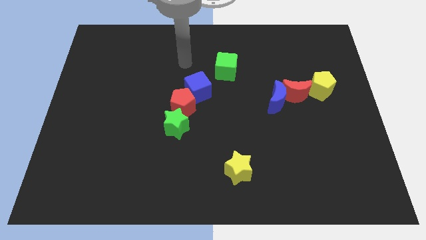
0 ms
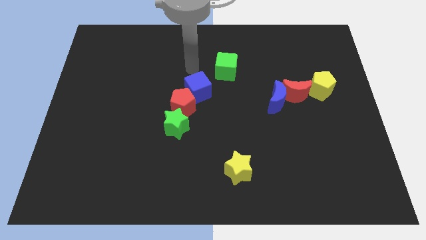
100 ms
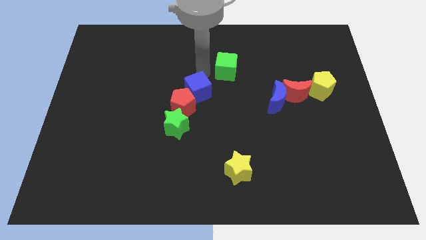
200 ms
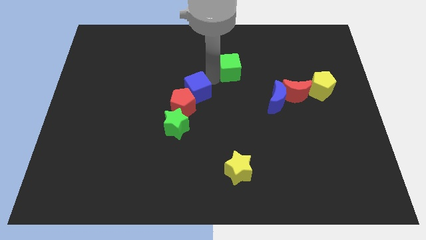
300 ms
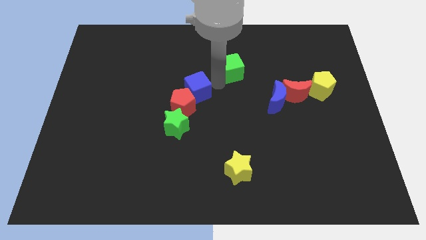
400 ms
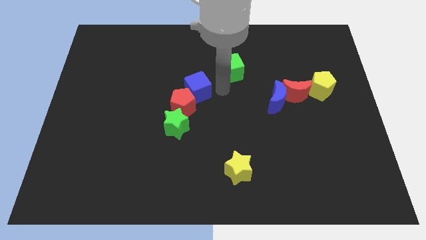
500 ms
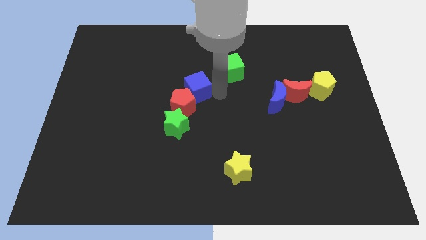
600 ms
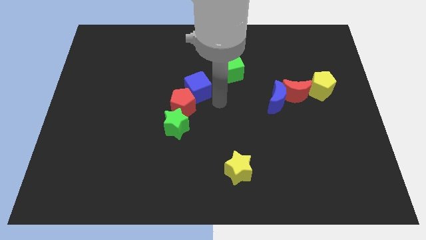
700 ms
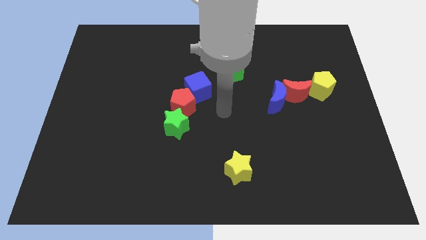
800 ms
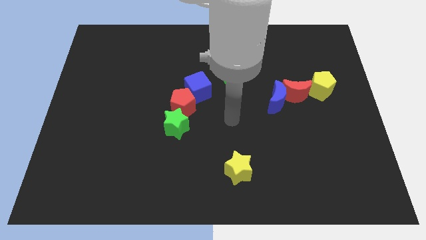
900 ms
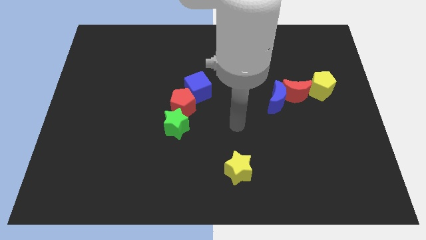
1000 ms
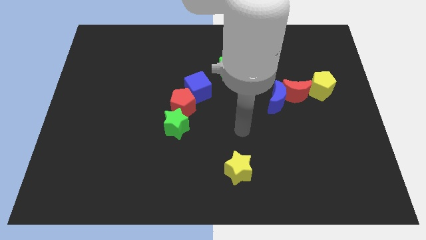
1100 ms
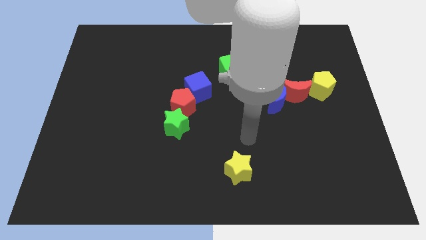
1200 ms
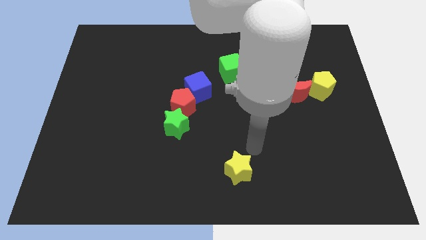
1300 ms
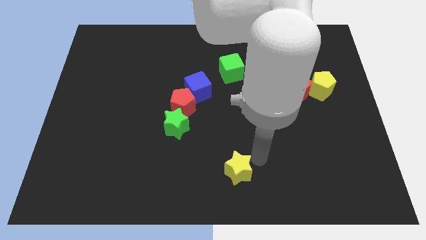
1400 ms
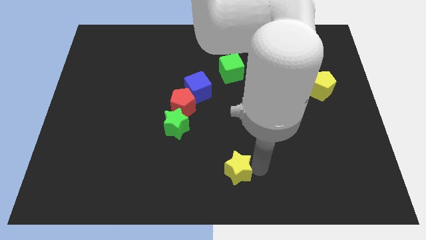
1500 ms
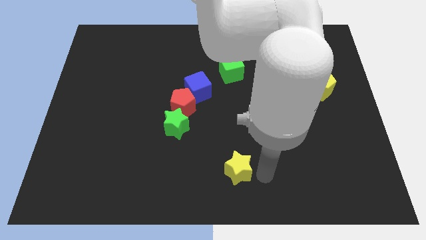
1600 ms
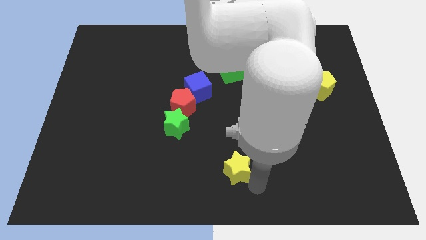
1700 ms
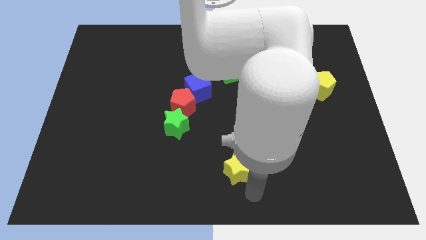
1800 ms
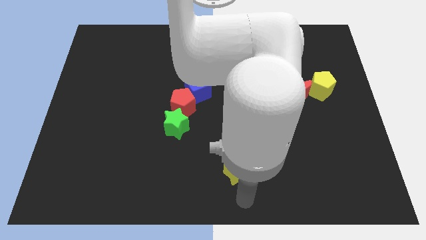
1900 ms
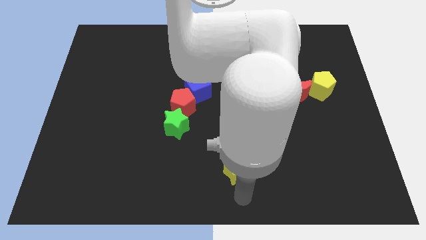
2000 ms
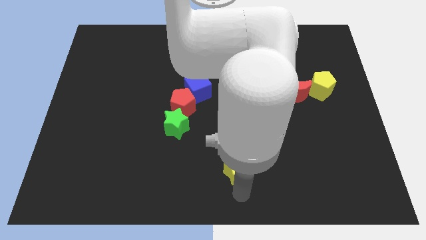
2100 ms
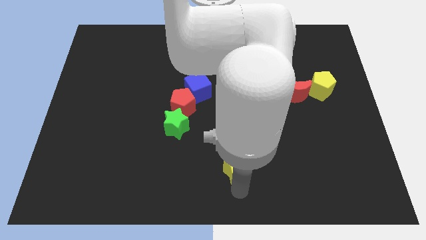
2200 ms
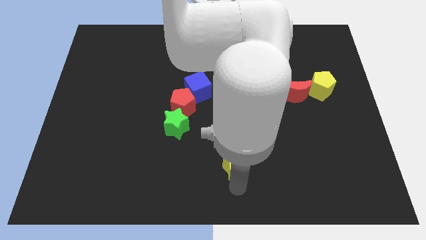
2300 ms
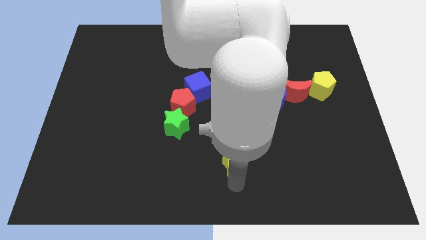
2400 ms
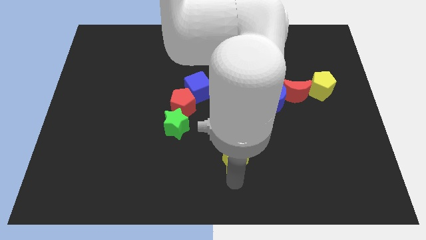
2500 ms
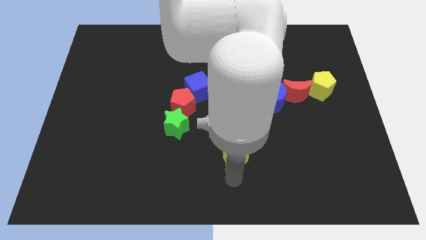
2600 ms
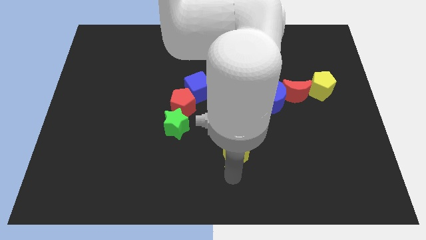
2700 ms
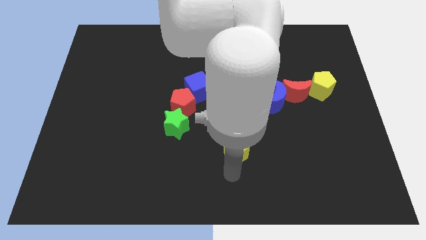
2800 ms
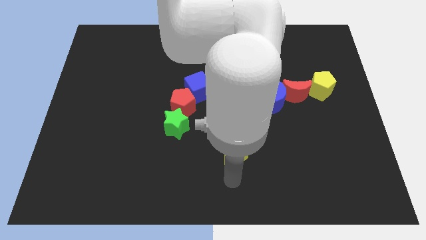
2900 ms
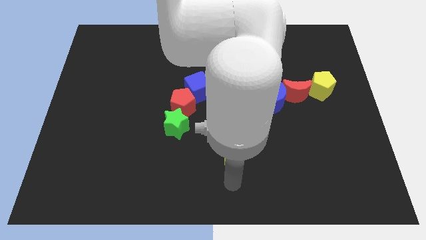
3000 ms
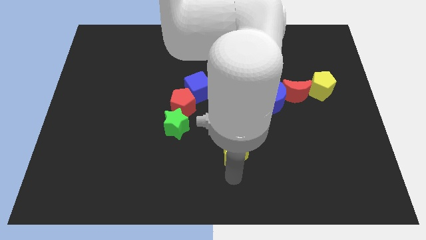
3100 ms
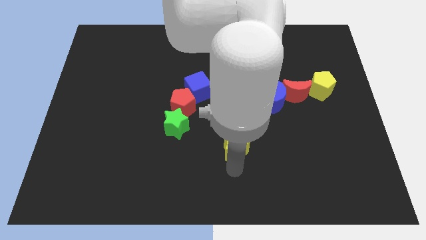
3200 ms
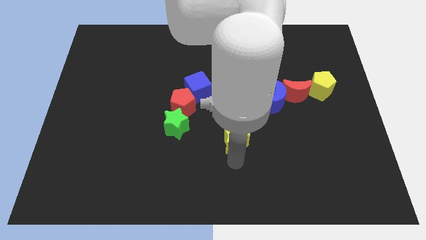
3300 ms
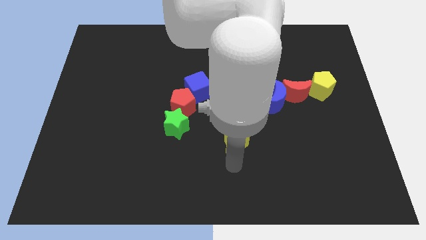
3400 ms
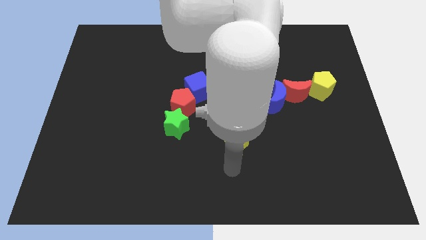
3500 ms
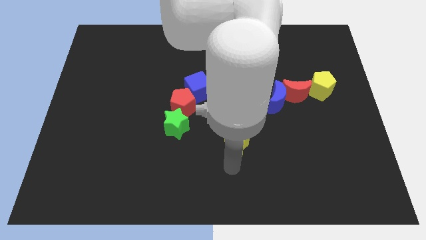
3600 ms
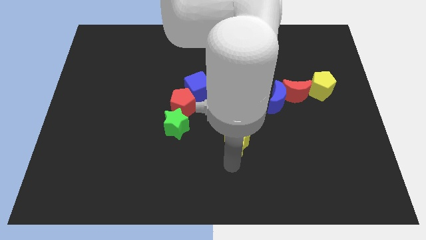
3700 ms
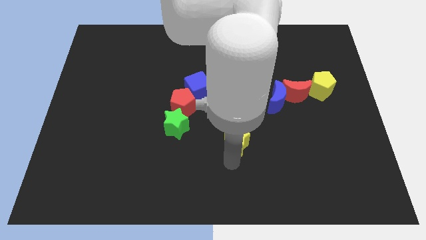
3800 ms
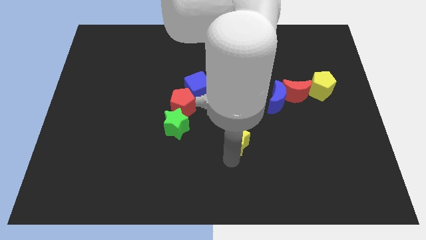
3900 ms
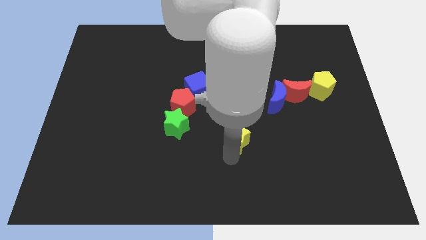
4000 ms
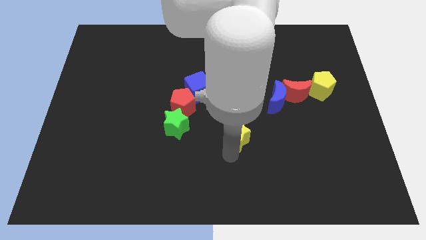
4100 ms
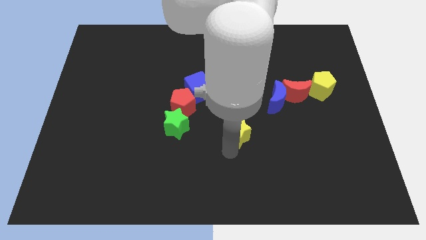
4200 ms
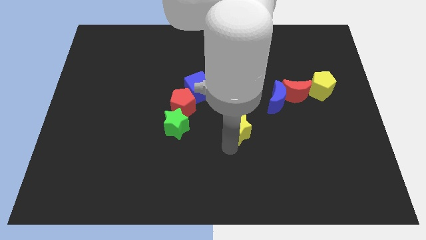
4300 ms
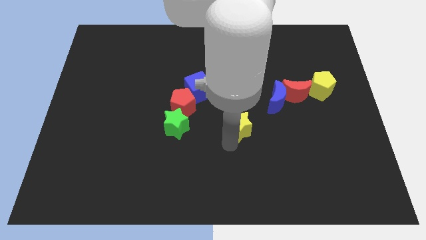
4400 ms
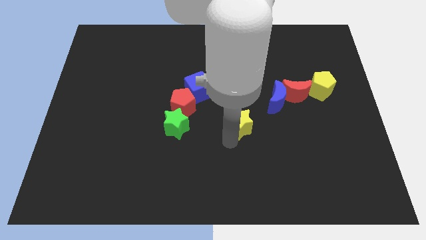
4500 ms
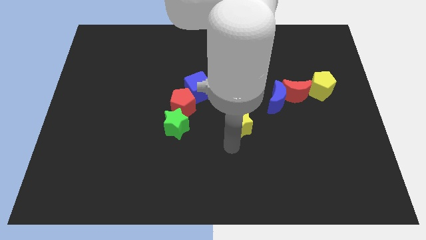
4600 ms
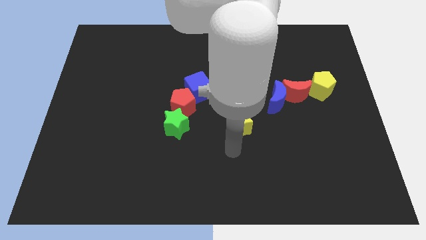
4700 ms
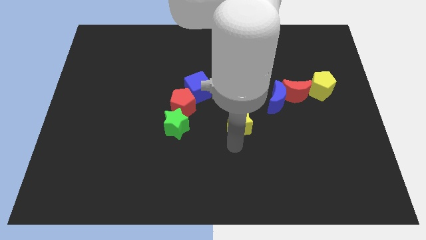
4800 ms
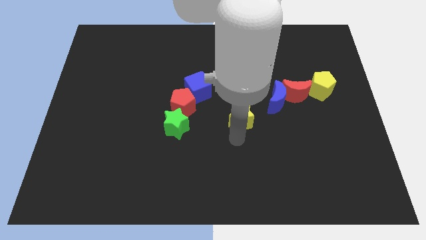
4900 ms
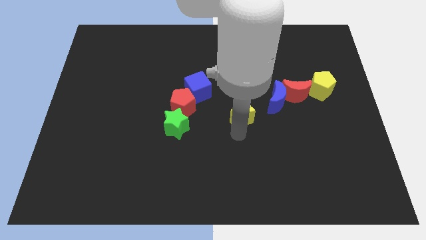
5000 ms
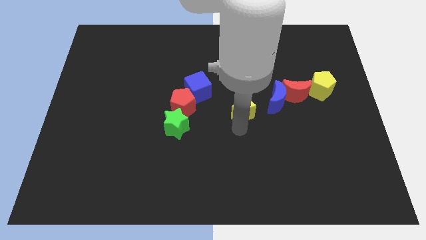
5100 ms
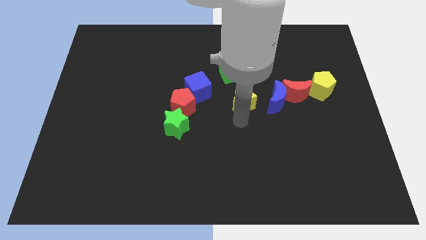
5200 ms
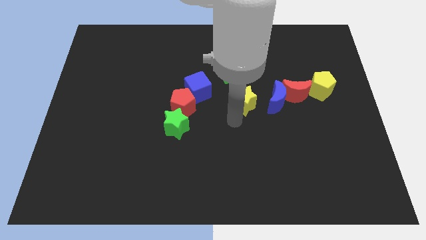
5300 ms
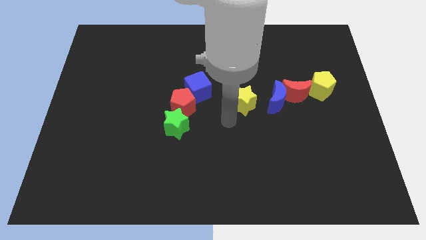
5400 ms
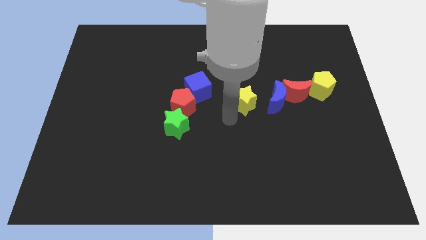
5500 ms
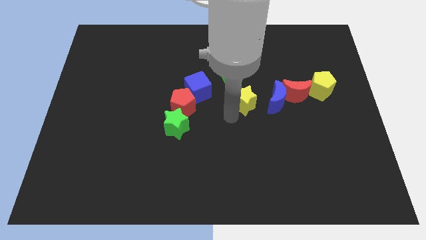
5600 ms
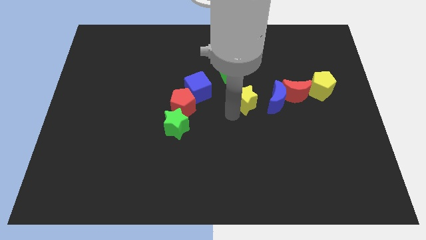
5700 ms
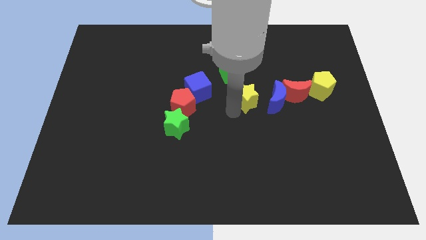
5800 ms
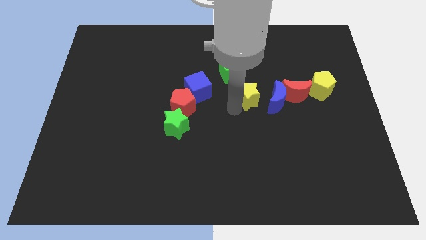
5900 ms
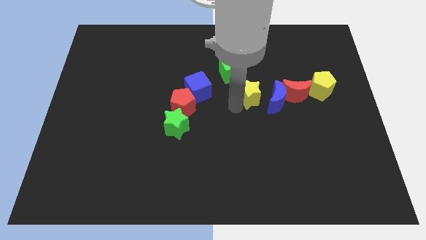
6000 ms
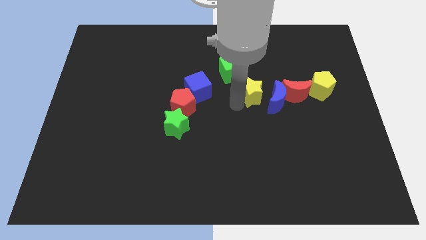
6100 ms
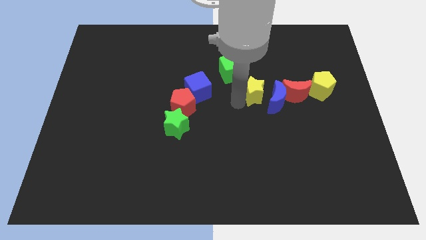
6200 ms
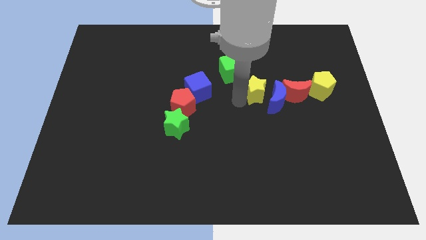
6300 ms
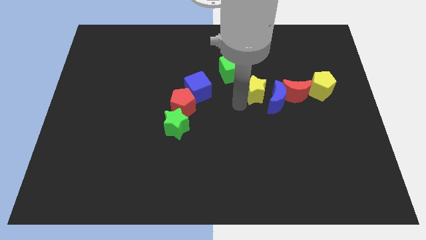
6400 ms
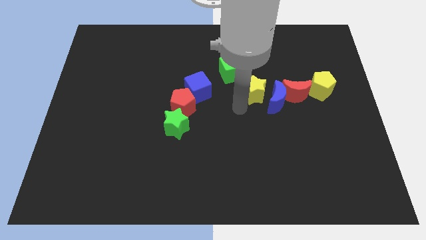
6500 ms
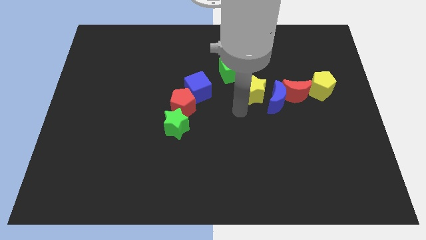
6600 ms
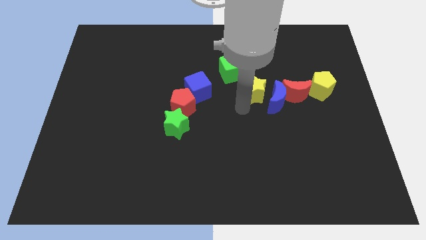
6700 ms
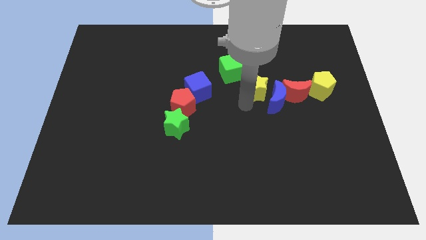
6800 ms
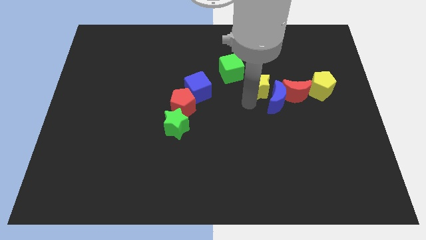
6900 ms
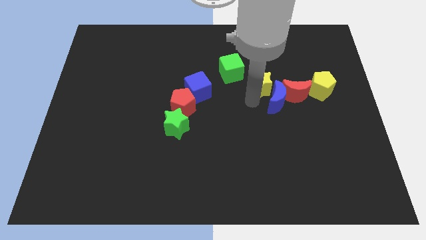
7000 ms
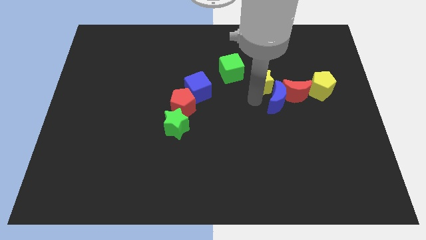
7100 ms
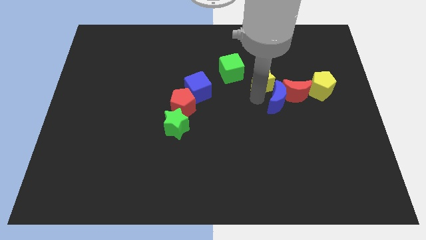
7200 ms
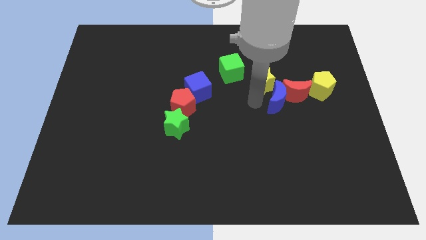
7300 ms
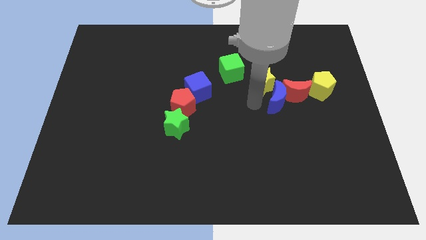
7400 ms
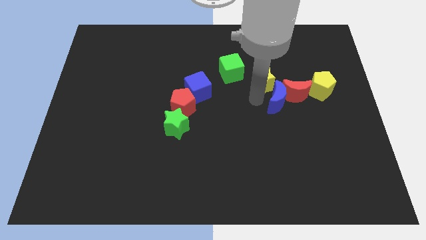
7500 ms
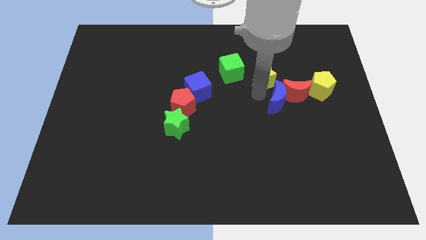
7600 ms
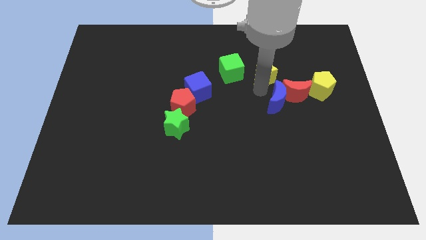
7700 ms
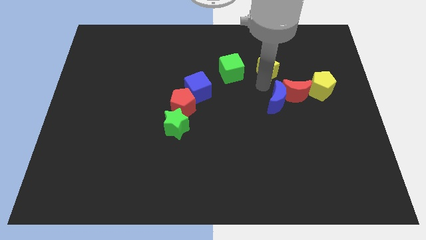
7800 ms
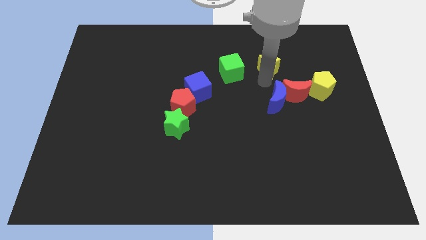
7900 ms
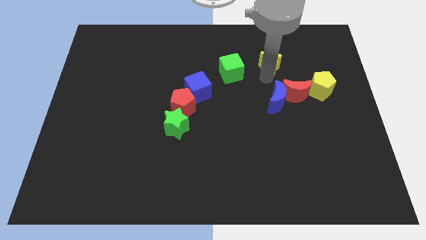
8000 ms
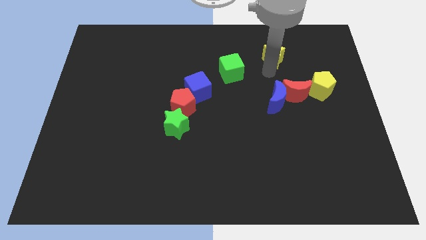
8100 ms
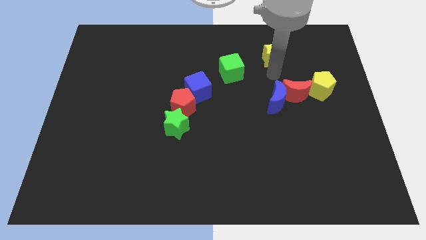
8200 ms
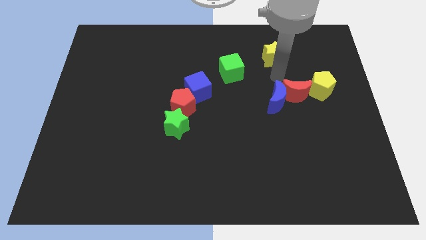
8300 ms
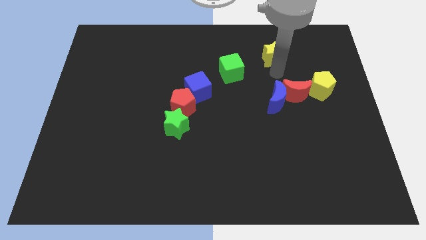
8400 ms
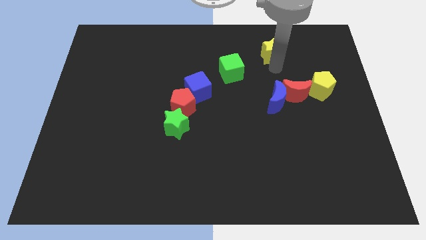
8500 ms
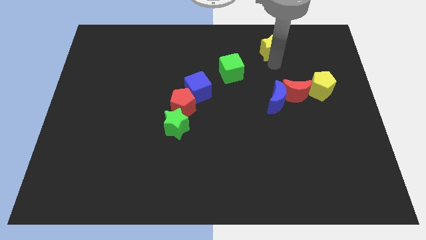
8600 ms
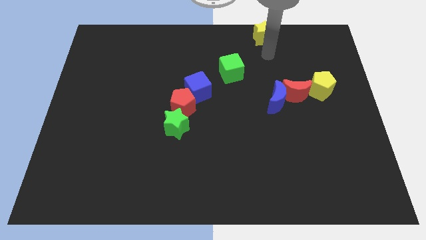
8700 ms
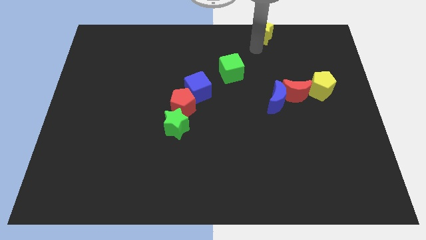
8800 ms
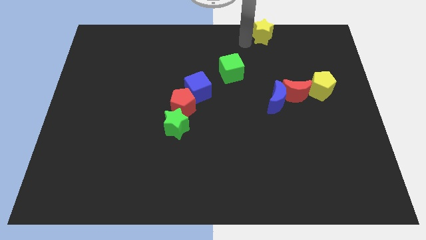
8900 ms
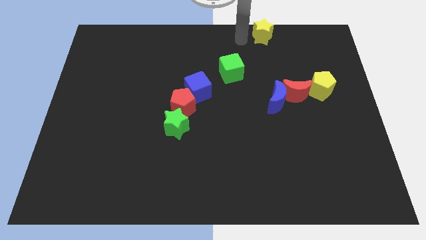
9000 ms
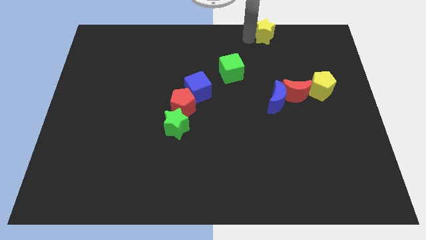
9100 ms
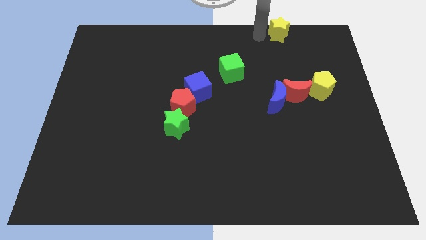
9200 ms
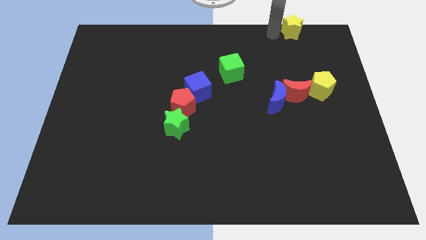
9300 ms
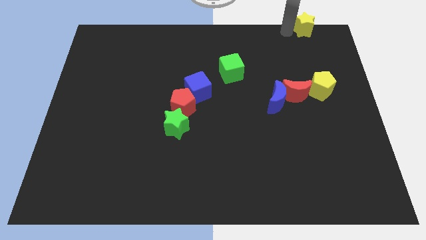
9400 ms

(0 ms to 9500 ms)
move the yellow star to the top right of the board
